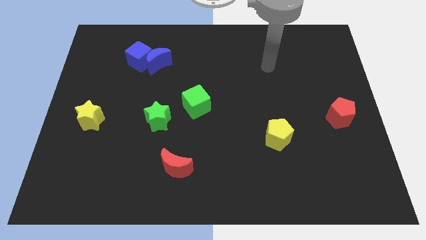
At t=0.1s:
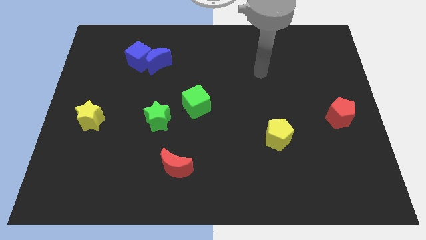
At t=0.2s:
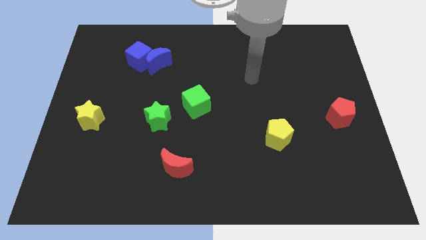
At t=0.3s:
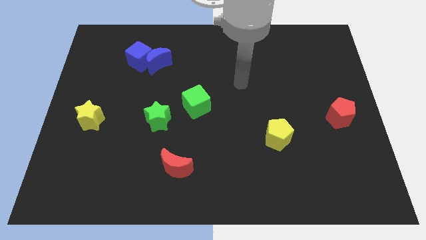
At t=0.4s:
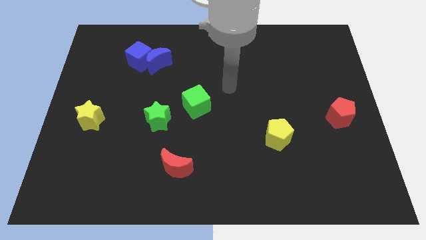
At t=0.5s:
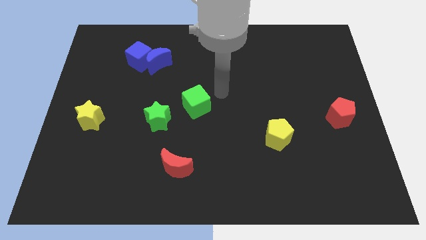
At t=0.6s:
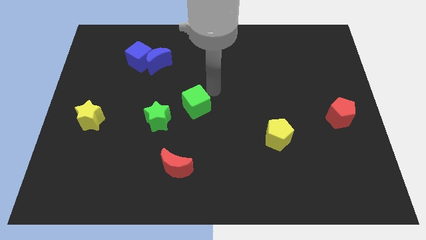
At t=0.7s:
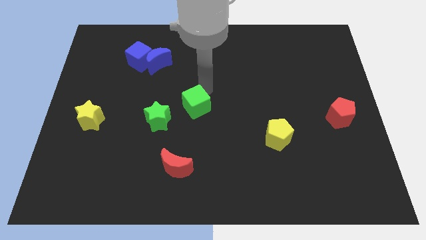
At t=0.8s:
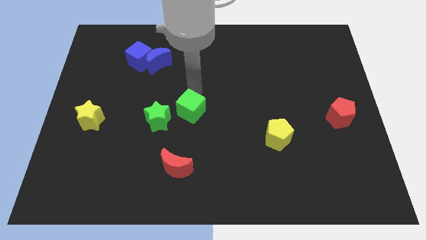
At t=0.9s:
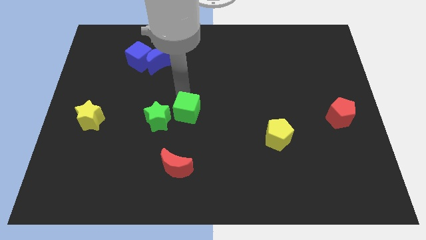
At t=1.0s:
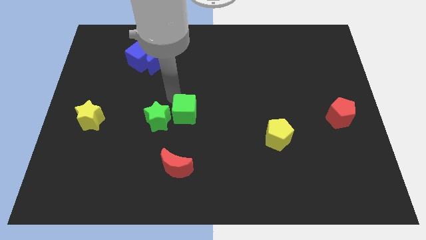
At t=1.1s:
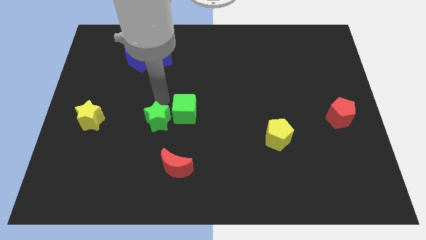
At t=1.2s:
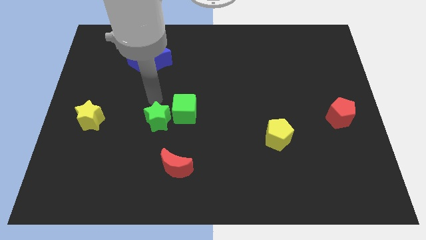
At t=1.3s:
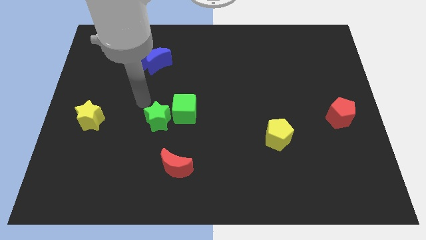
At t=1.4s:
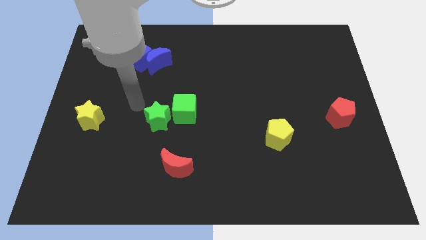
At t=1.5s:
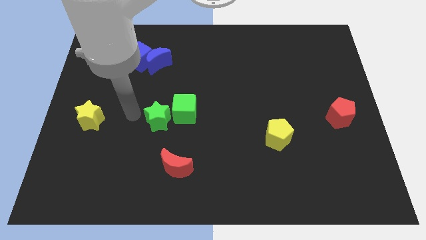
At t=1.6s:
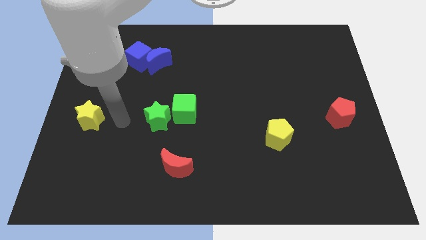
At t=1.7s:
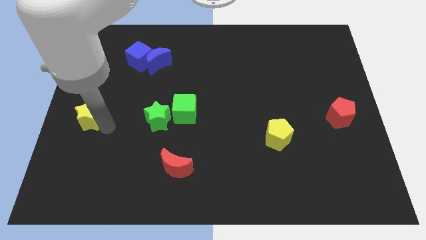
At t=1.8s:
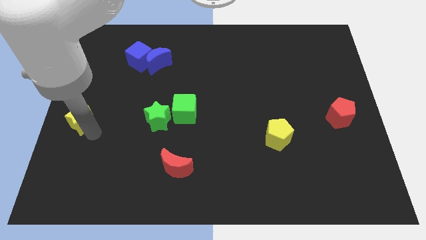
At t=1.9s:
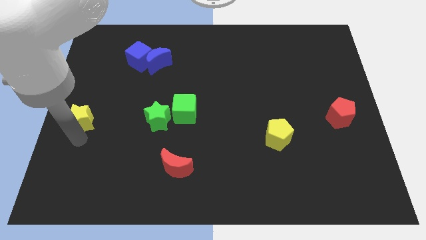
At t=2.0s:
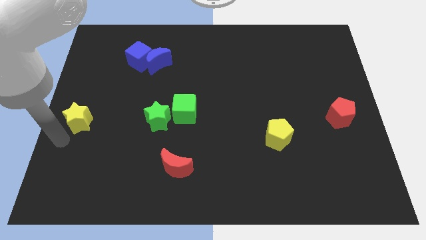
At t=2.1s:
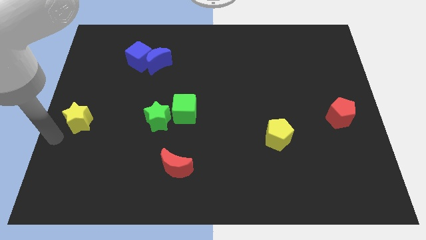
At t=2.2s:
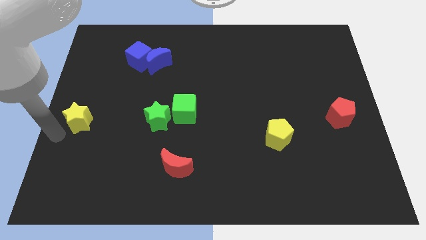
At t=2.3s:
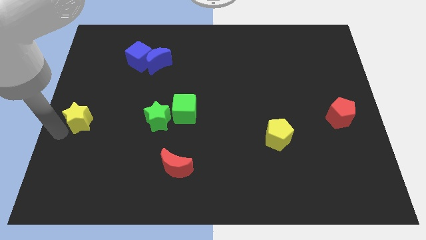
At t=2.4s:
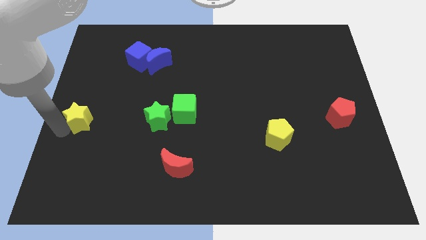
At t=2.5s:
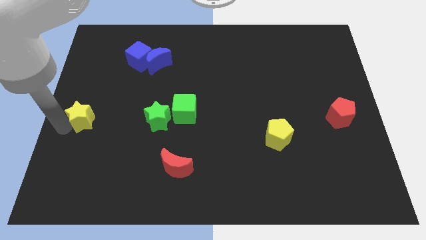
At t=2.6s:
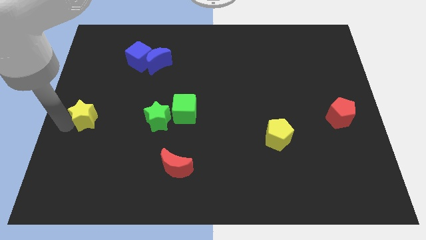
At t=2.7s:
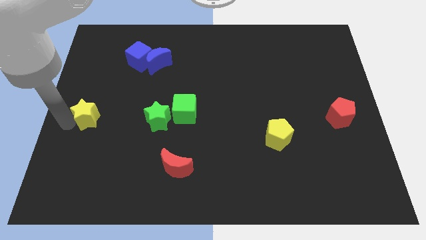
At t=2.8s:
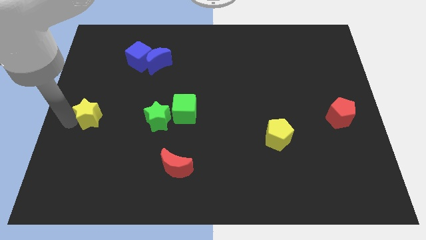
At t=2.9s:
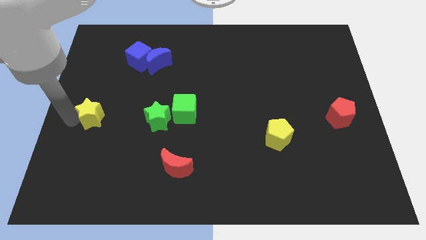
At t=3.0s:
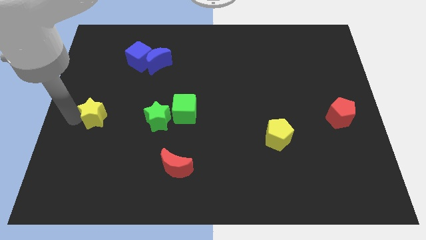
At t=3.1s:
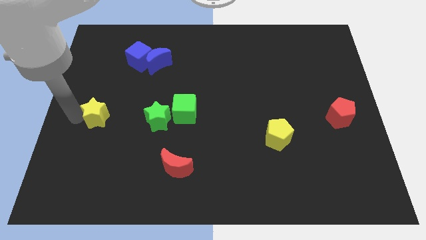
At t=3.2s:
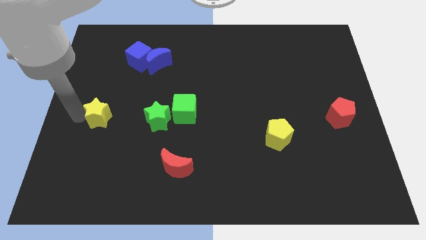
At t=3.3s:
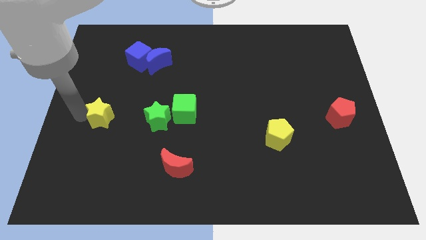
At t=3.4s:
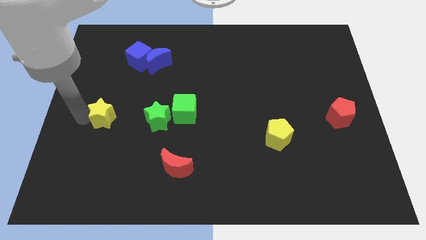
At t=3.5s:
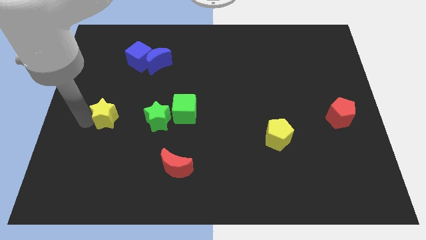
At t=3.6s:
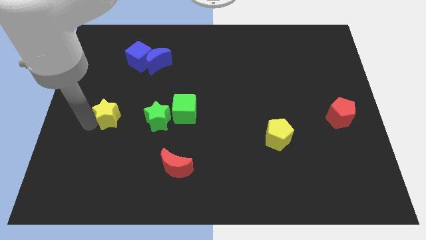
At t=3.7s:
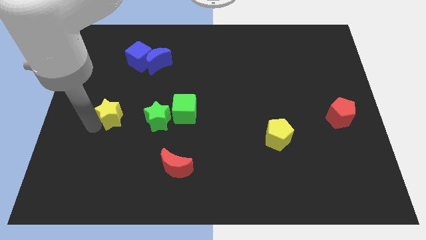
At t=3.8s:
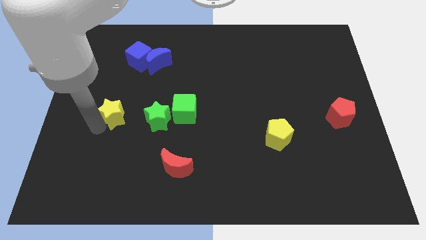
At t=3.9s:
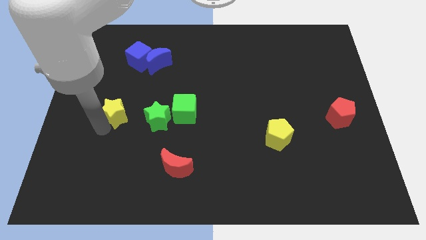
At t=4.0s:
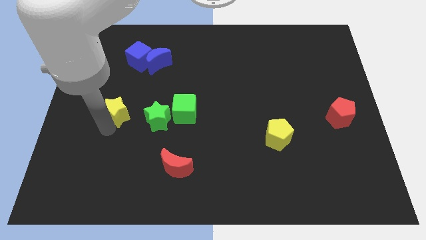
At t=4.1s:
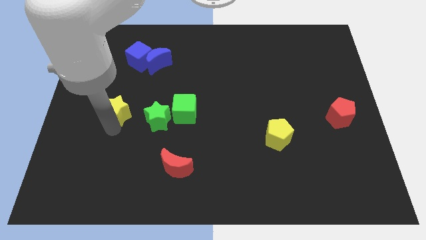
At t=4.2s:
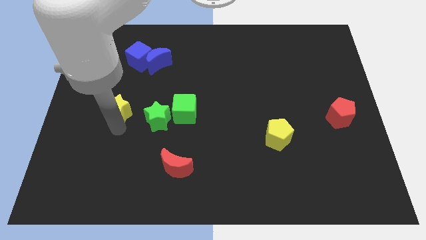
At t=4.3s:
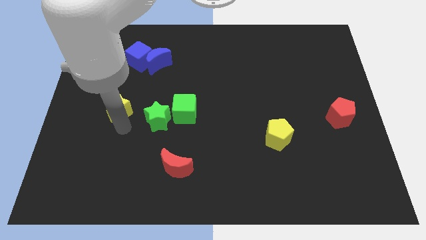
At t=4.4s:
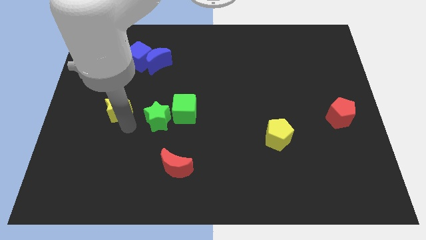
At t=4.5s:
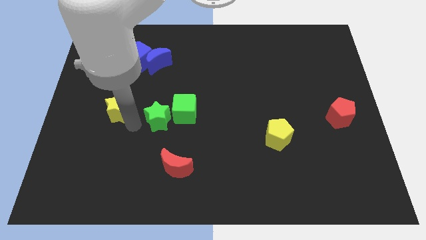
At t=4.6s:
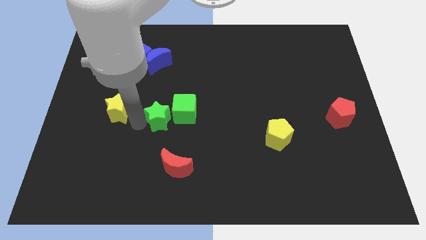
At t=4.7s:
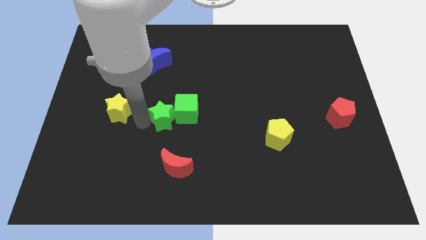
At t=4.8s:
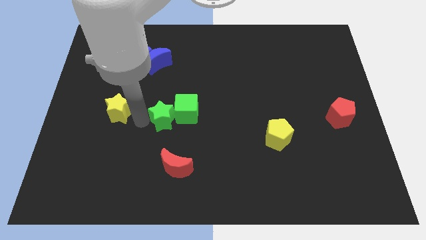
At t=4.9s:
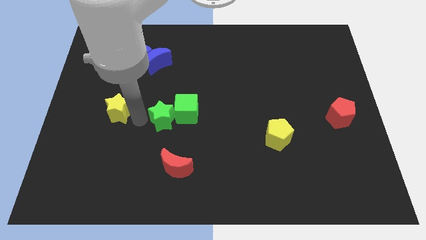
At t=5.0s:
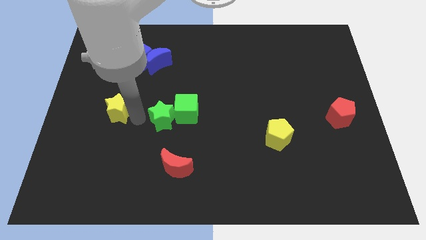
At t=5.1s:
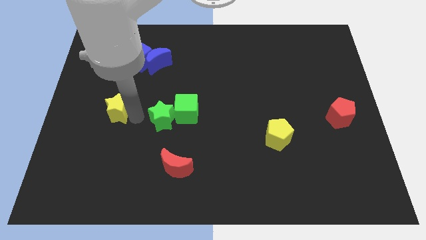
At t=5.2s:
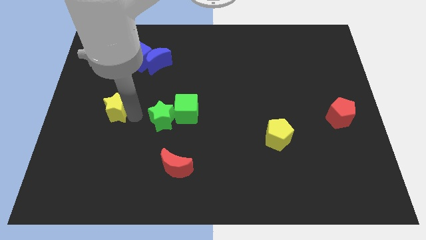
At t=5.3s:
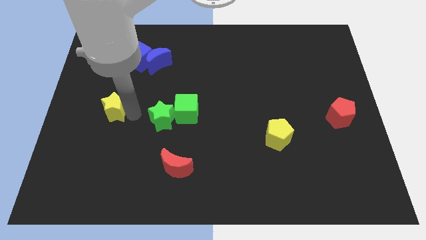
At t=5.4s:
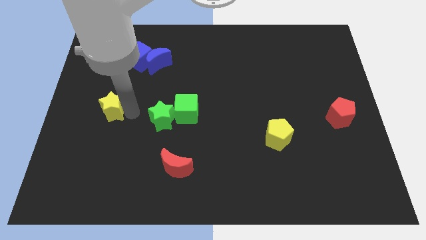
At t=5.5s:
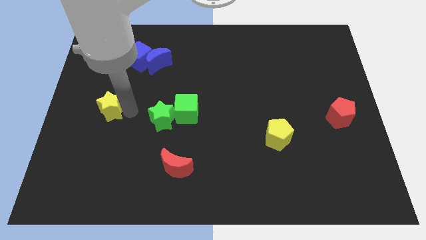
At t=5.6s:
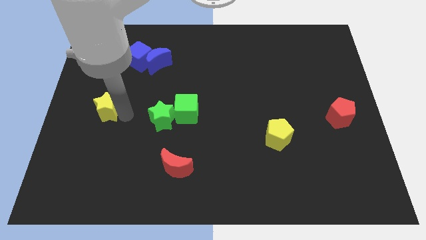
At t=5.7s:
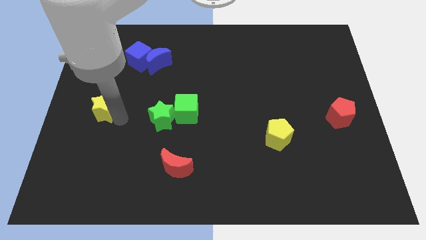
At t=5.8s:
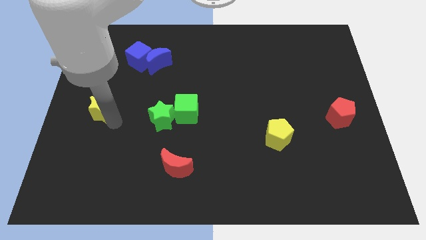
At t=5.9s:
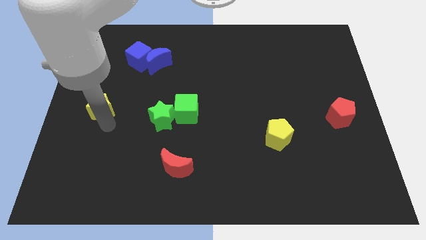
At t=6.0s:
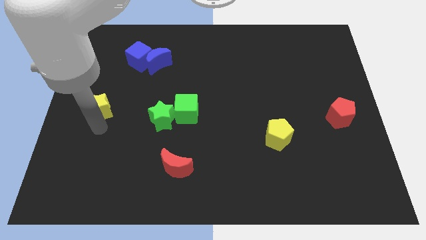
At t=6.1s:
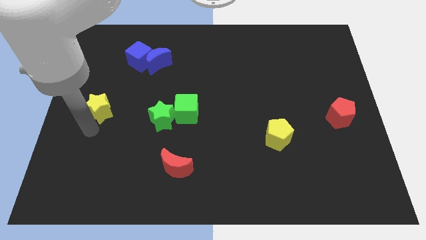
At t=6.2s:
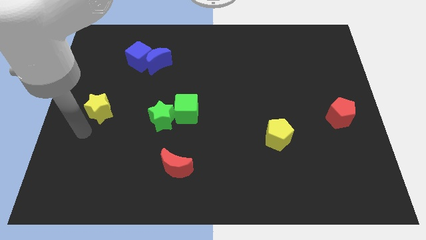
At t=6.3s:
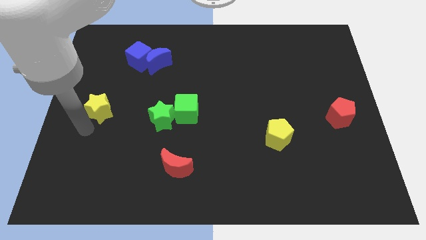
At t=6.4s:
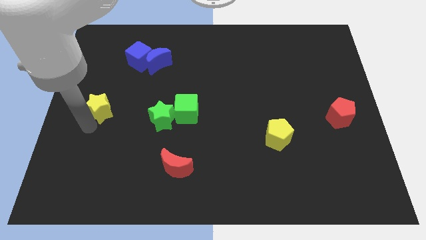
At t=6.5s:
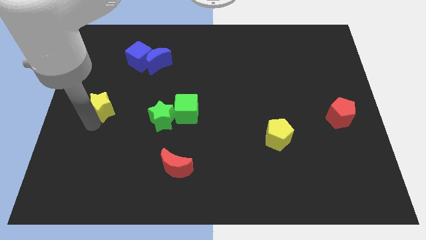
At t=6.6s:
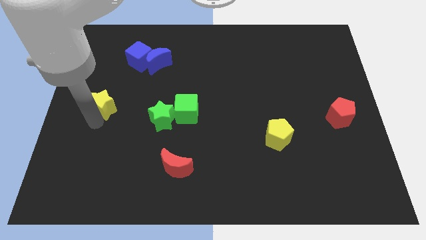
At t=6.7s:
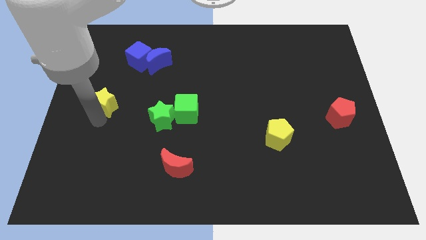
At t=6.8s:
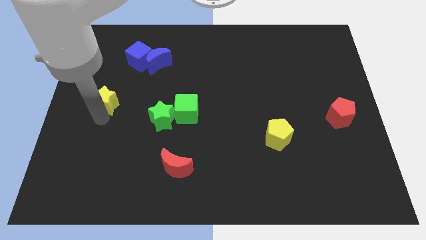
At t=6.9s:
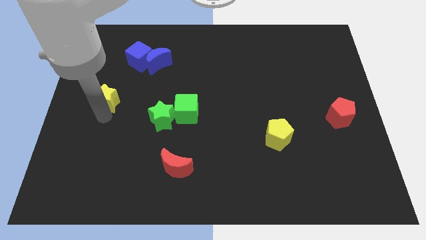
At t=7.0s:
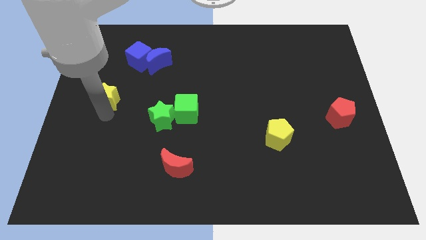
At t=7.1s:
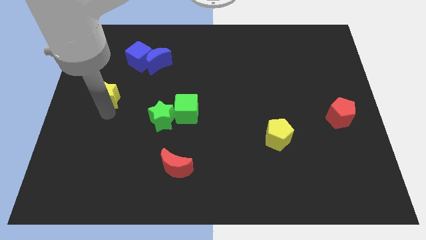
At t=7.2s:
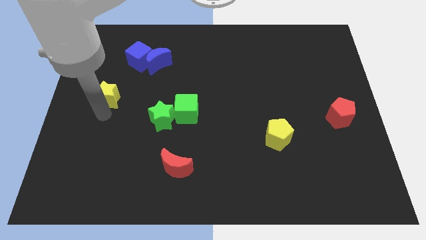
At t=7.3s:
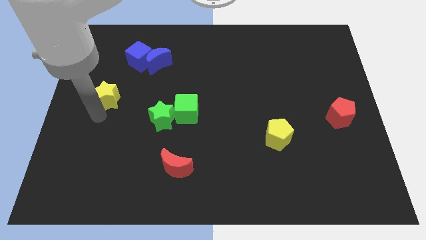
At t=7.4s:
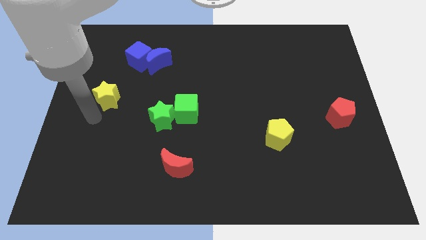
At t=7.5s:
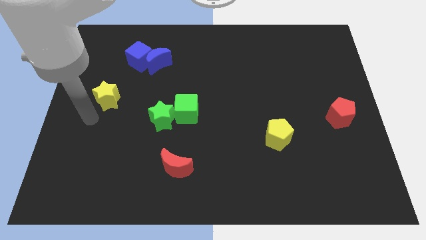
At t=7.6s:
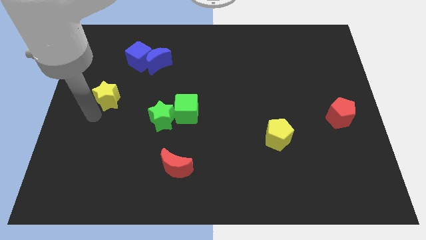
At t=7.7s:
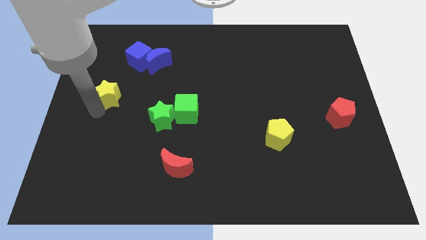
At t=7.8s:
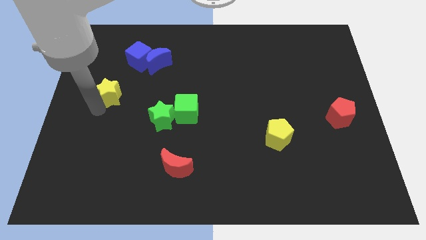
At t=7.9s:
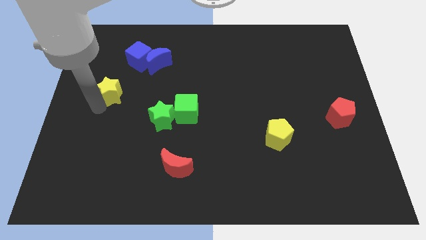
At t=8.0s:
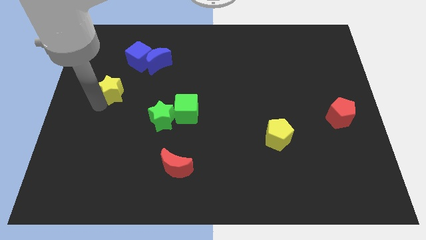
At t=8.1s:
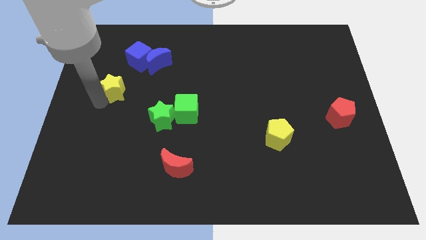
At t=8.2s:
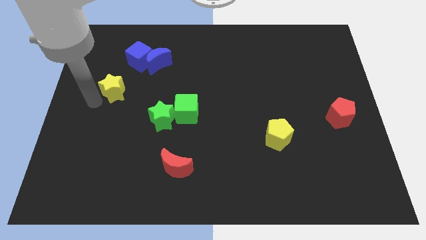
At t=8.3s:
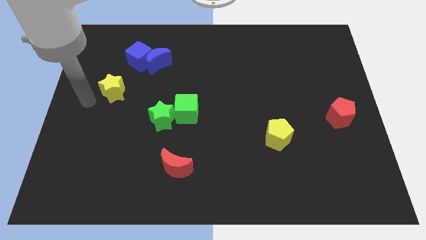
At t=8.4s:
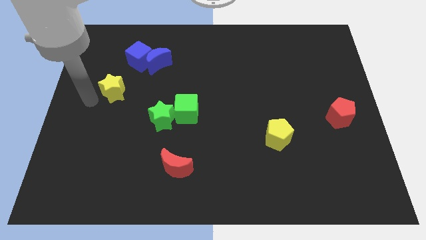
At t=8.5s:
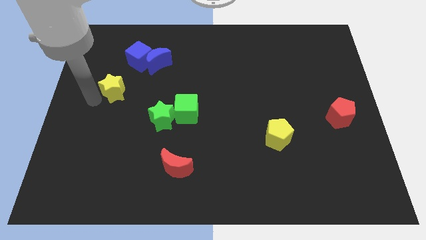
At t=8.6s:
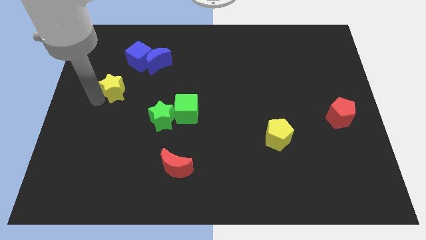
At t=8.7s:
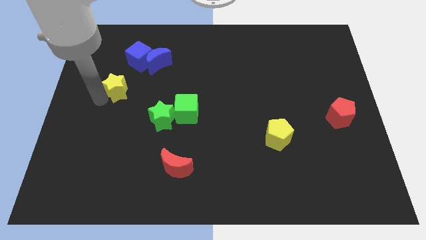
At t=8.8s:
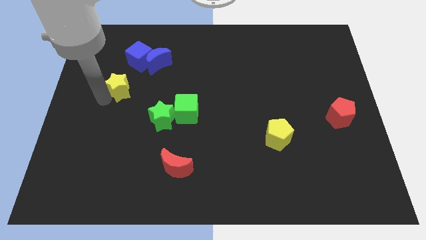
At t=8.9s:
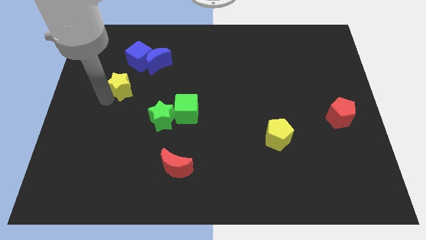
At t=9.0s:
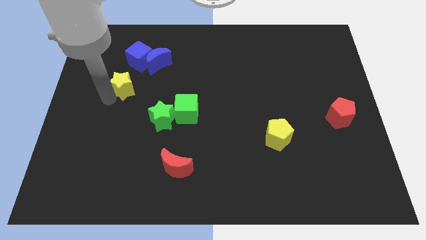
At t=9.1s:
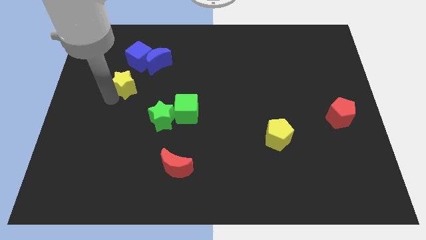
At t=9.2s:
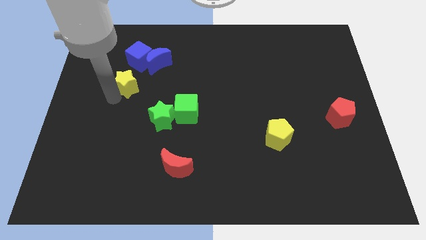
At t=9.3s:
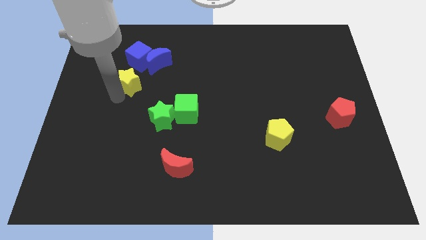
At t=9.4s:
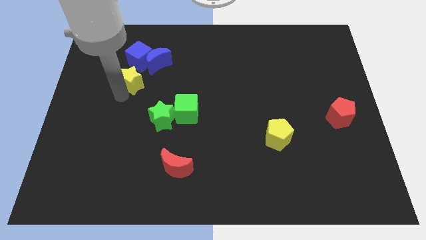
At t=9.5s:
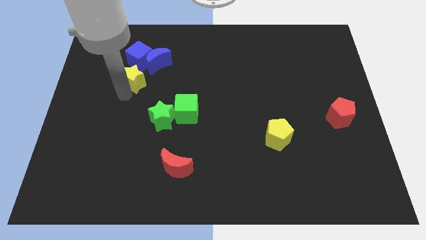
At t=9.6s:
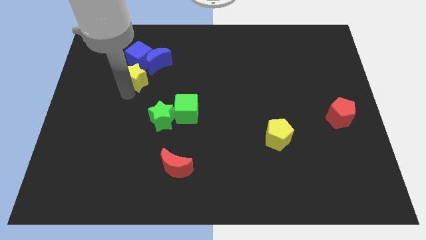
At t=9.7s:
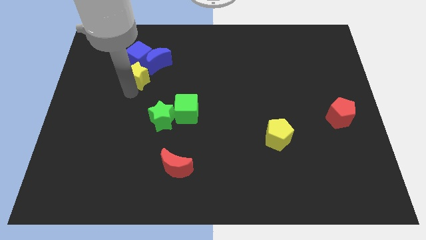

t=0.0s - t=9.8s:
put the yellow star to the bottom right of the blue cube
